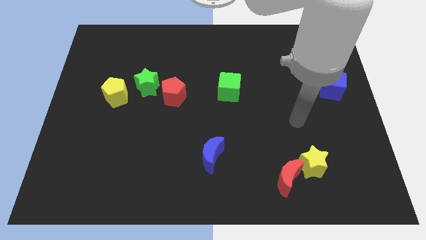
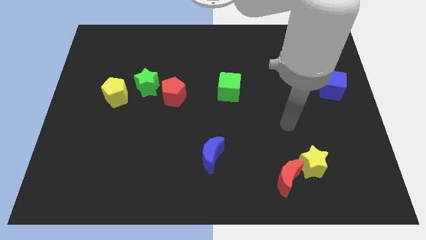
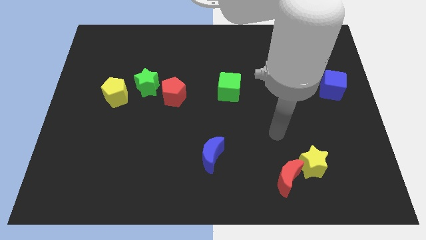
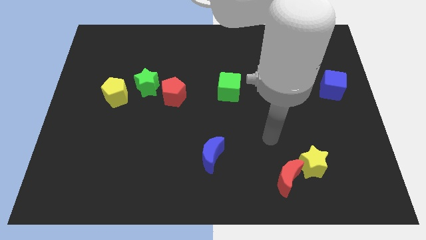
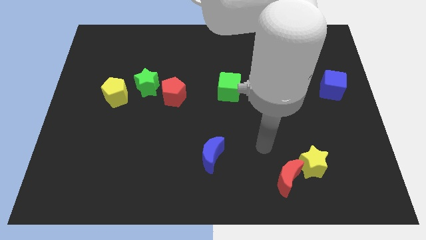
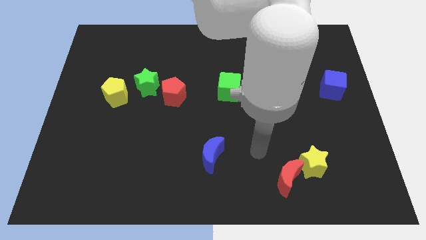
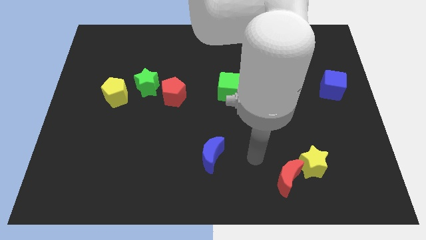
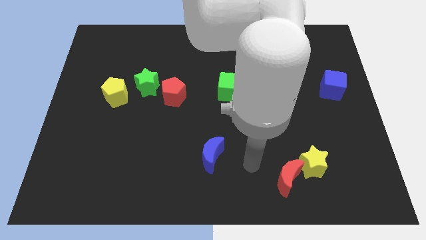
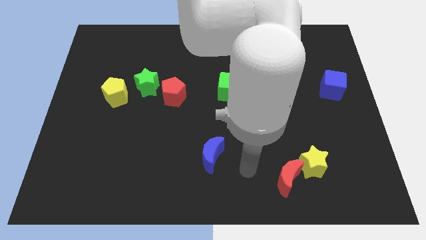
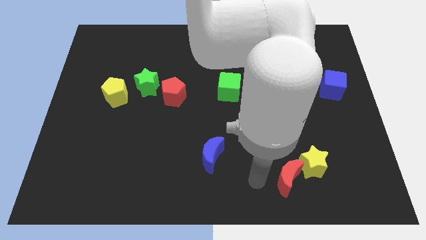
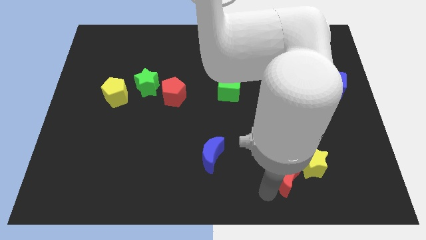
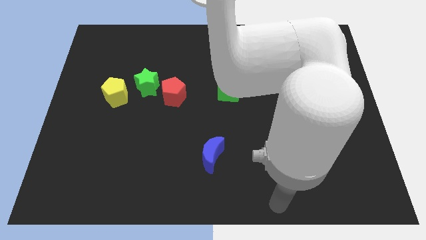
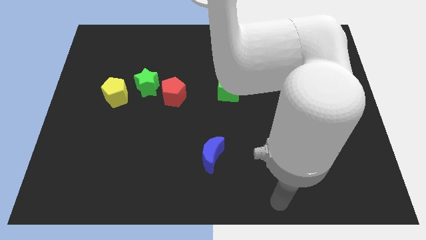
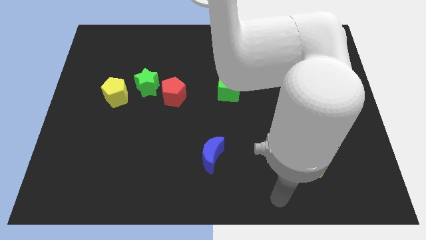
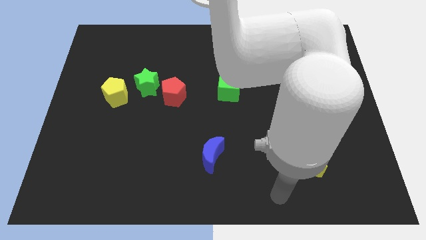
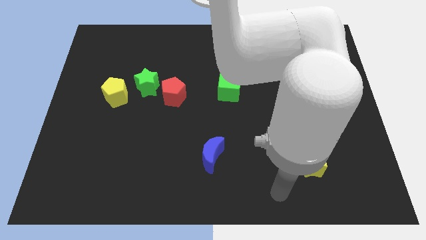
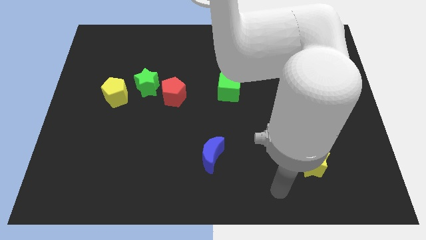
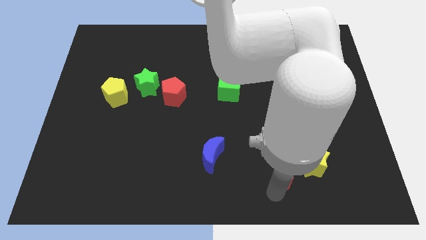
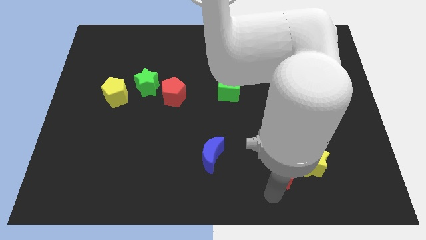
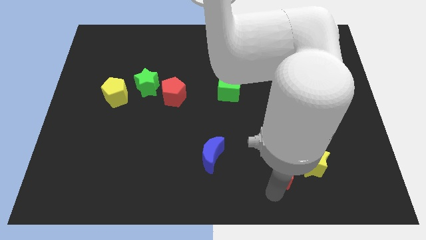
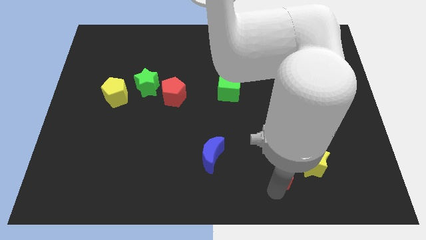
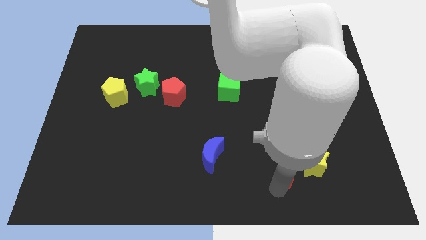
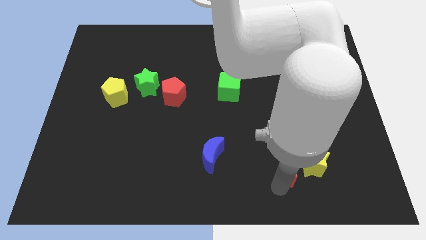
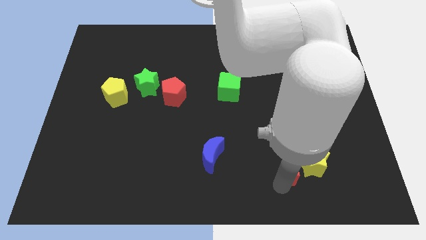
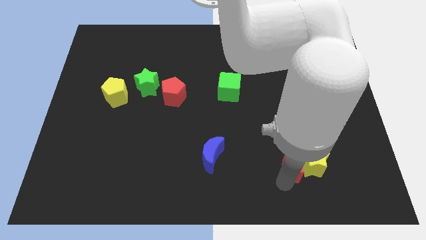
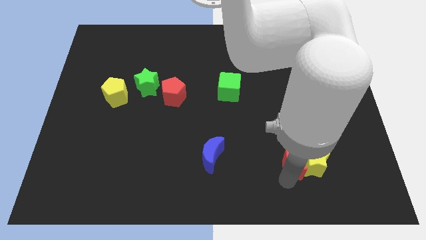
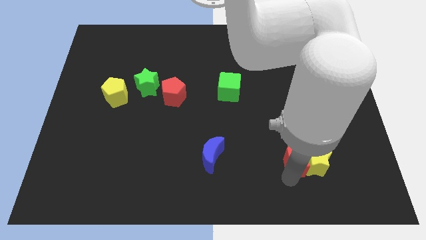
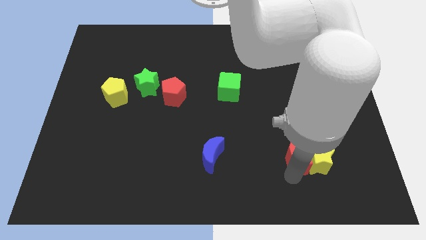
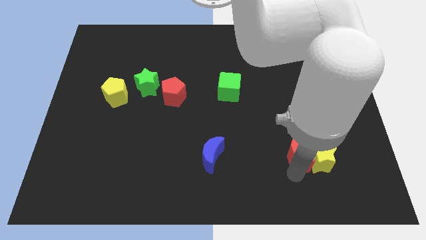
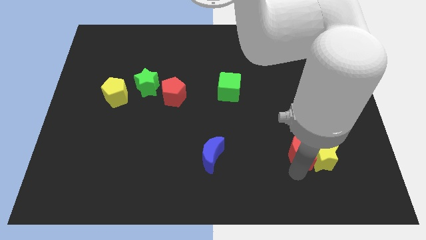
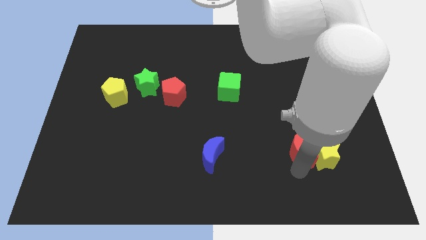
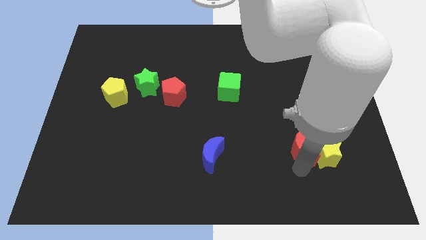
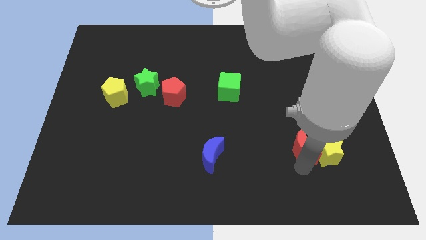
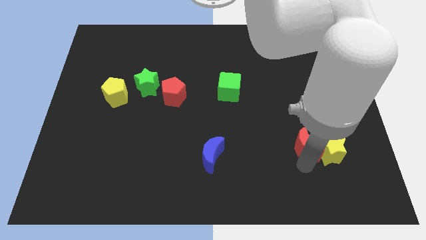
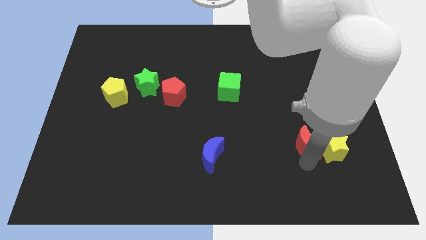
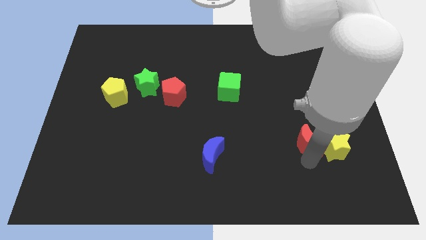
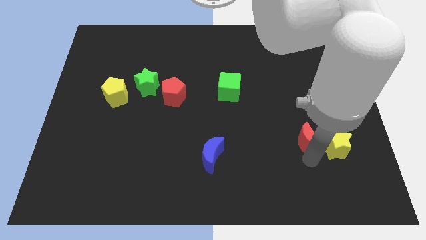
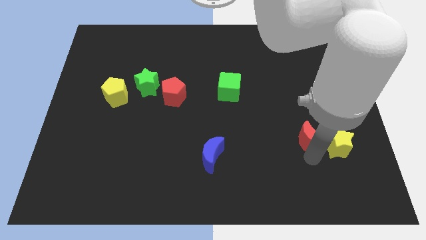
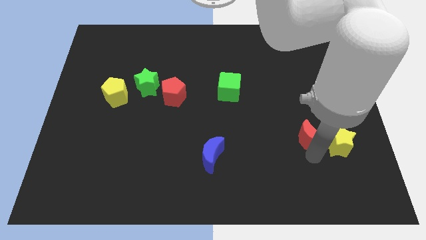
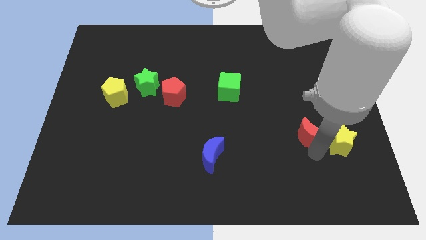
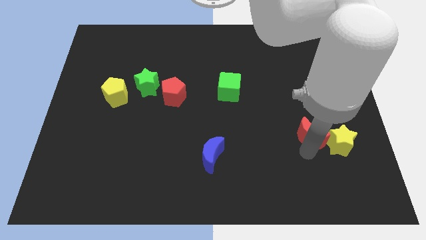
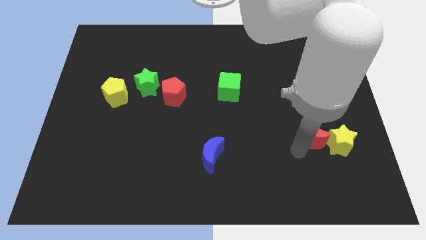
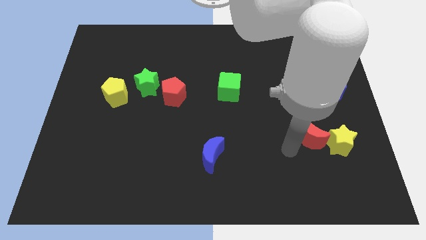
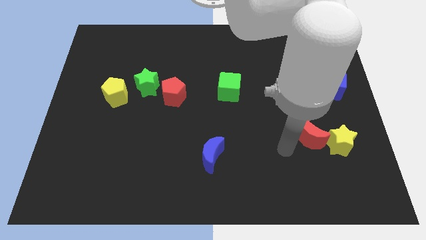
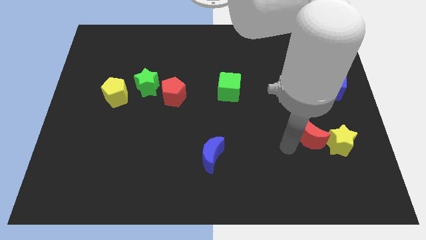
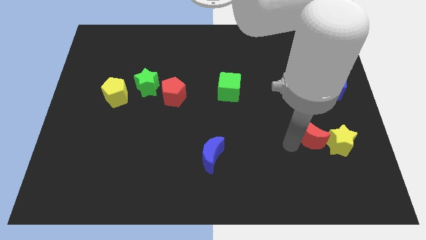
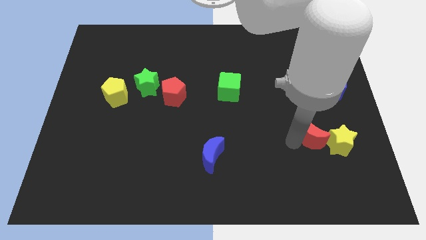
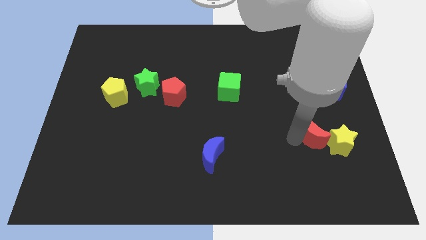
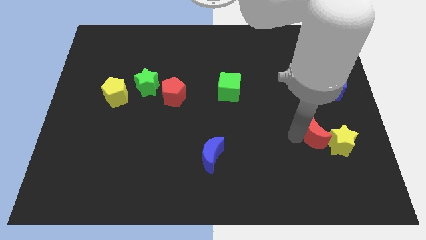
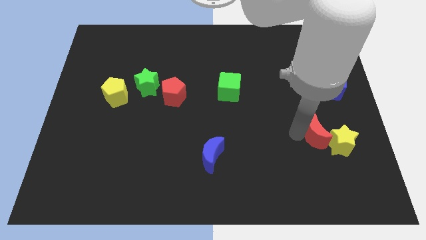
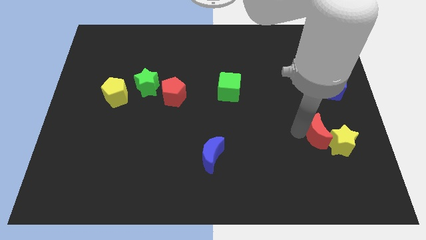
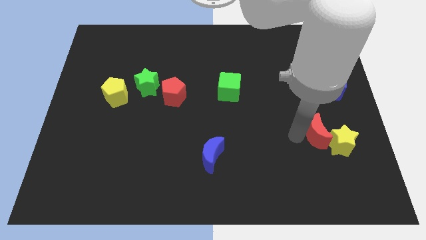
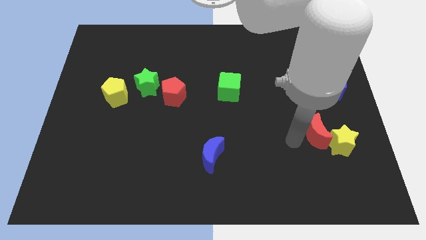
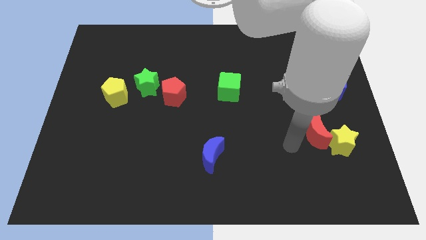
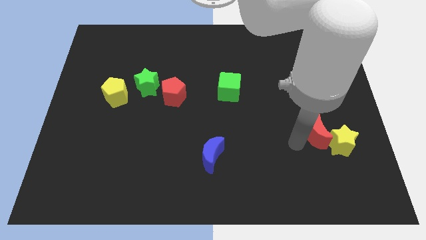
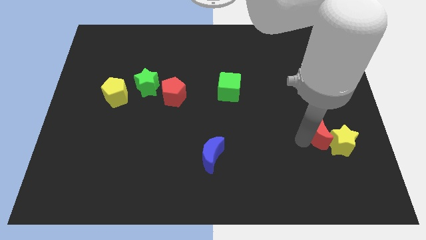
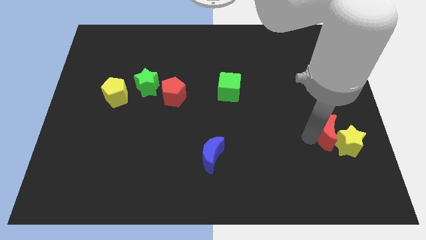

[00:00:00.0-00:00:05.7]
move the red moon to the bottom side of the blue cube

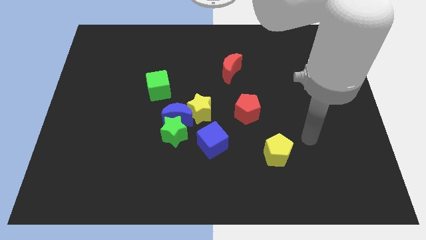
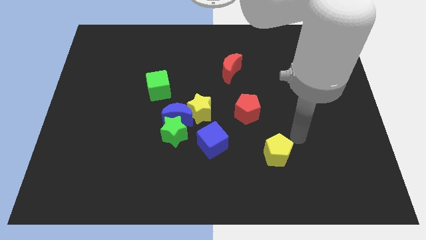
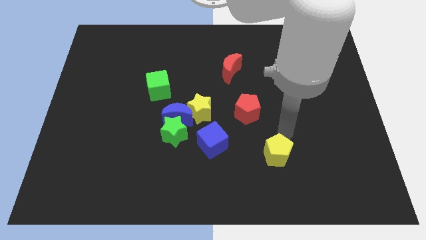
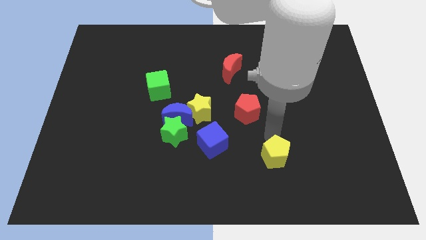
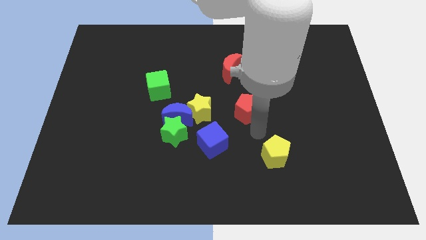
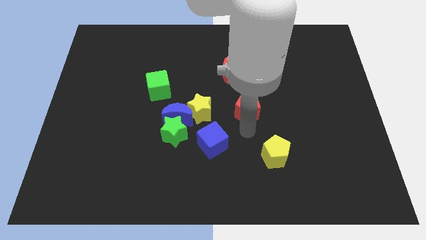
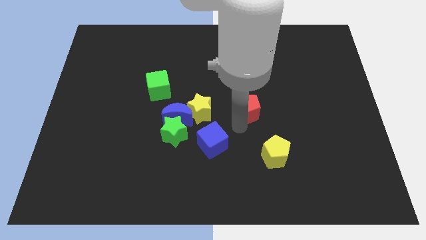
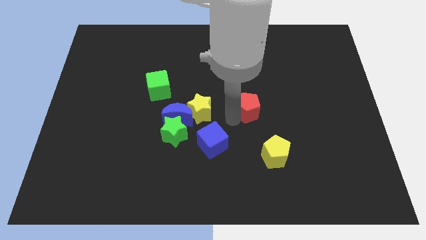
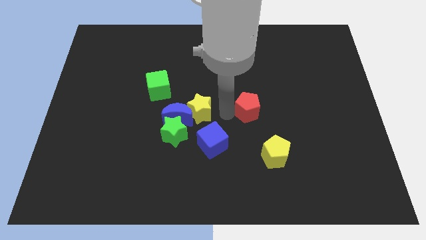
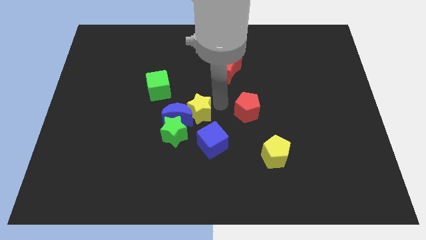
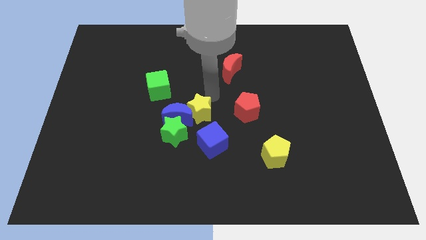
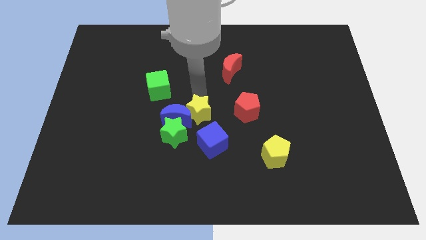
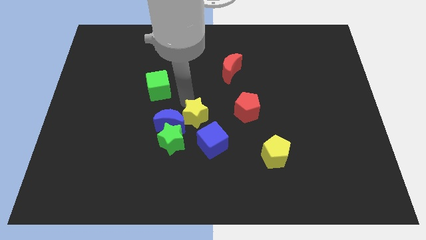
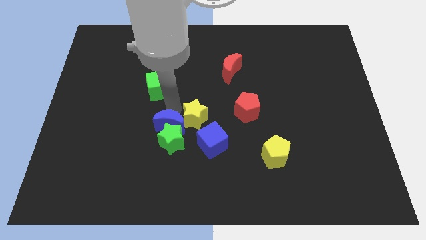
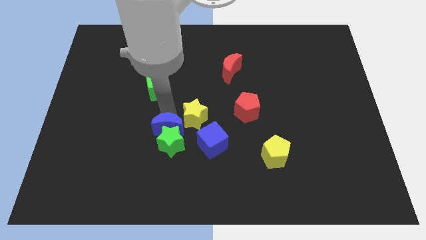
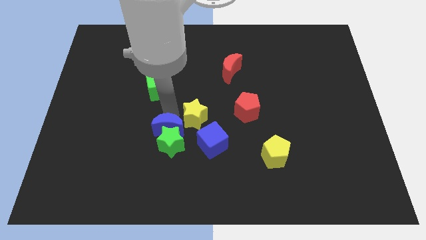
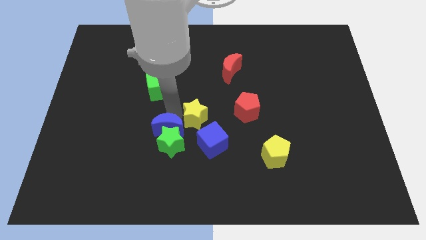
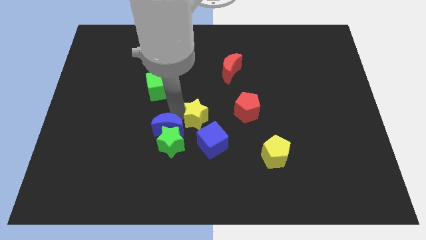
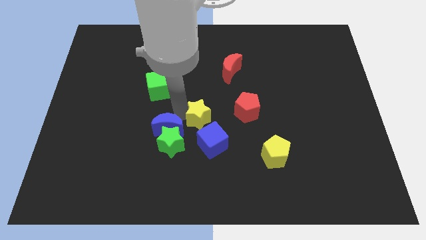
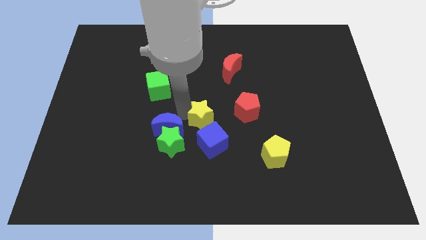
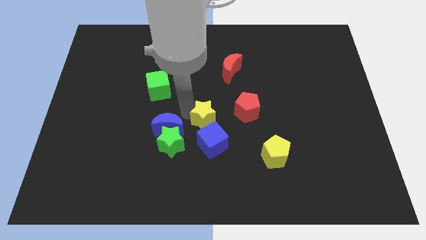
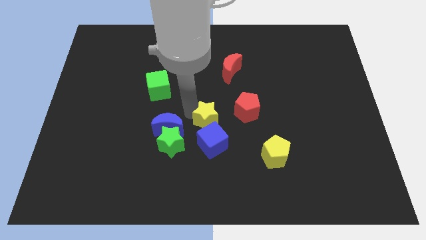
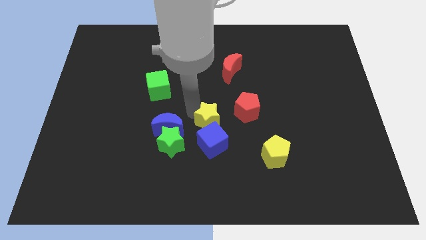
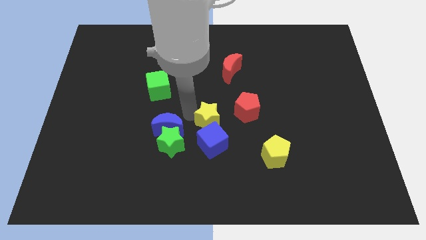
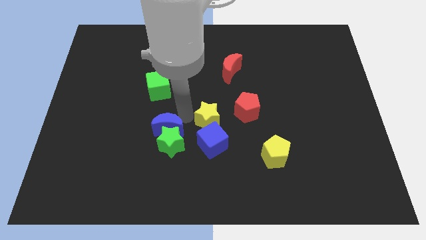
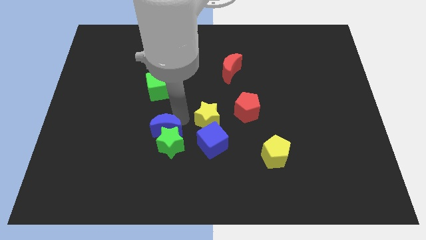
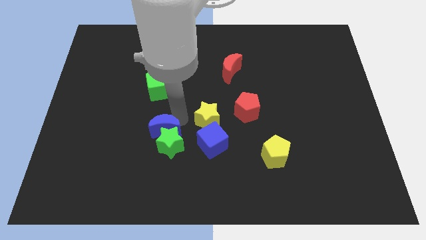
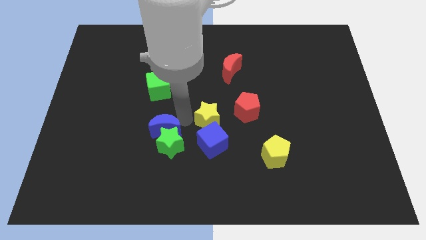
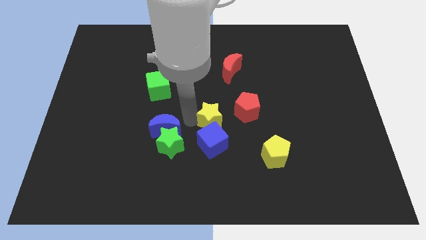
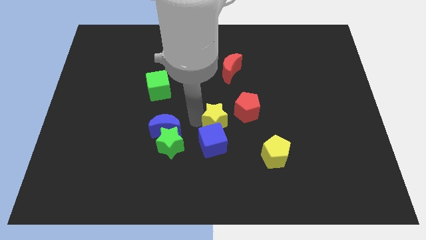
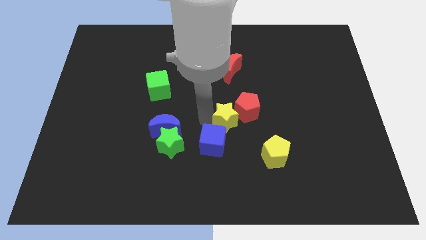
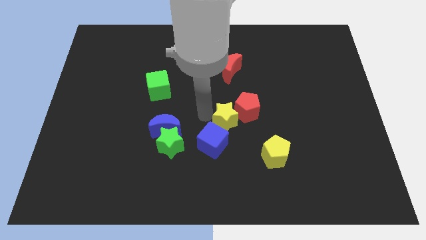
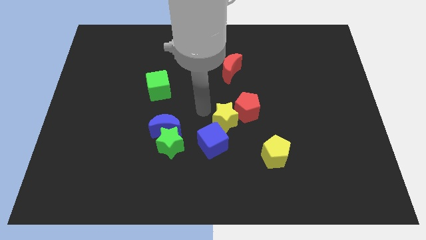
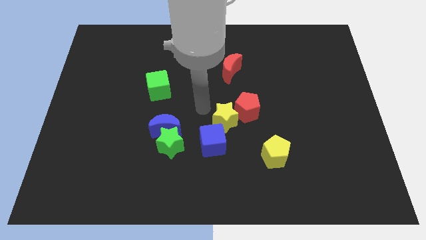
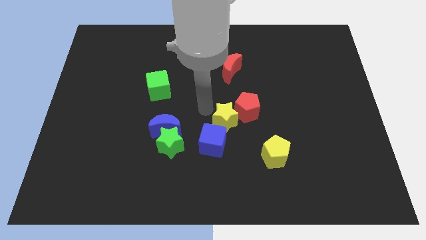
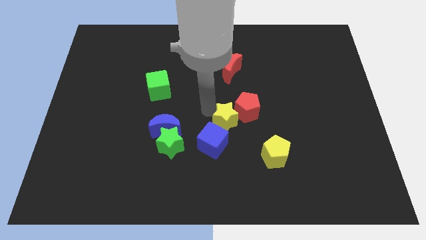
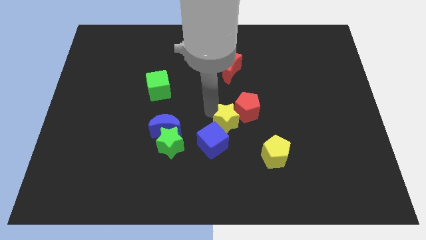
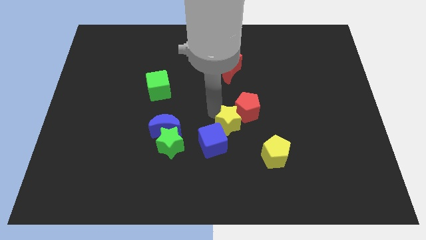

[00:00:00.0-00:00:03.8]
put the yellow star to the top left of the yellow pentagon
